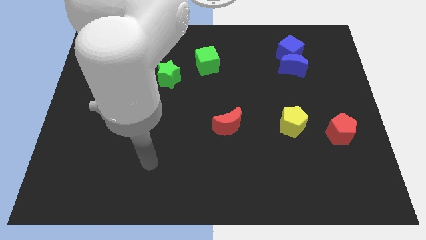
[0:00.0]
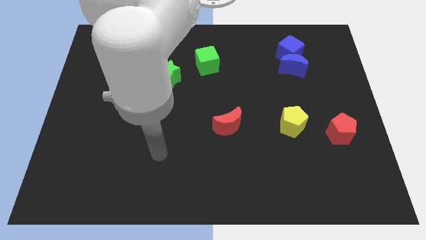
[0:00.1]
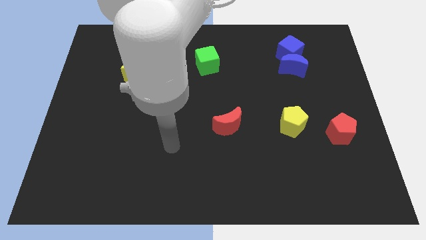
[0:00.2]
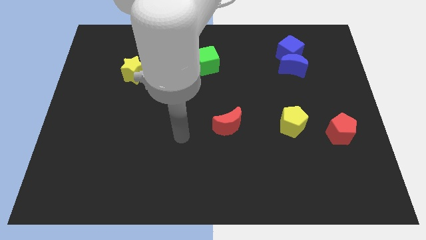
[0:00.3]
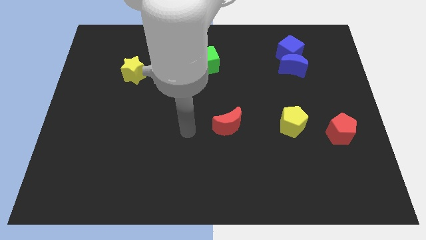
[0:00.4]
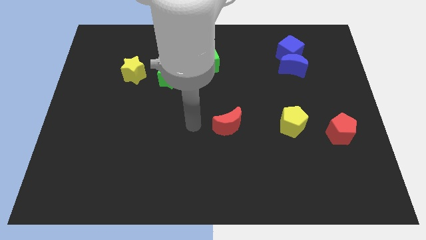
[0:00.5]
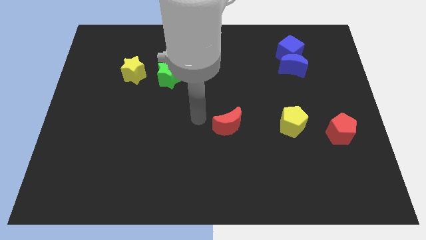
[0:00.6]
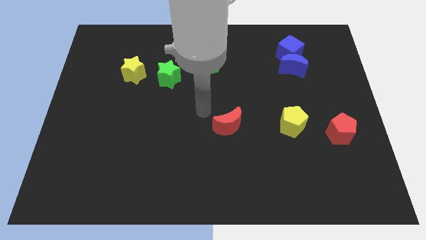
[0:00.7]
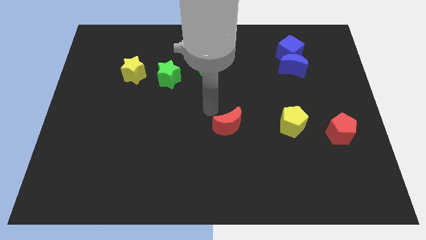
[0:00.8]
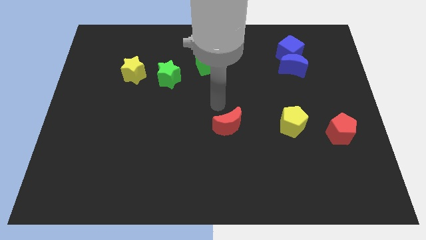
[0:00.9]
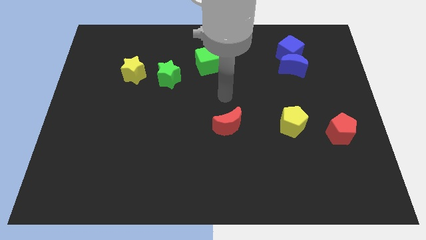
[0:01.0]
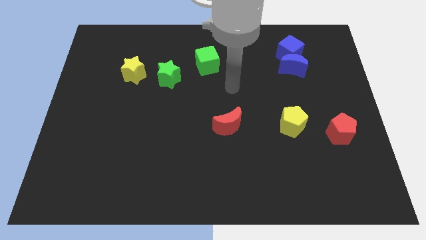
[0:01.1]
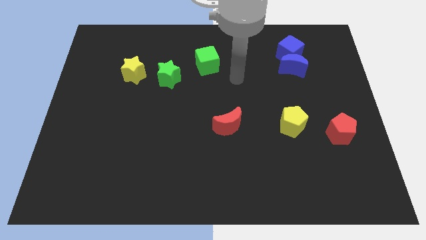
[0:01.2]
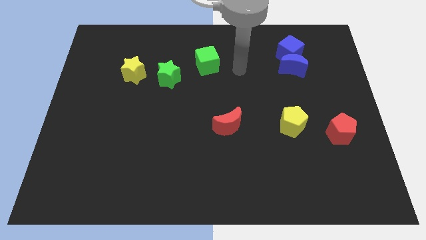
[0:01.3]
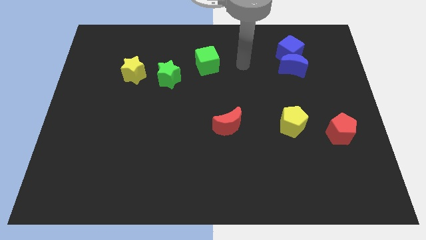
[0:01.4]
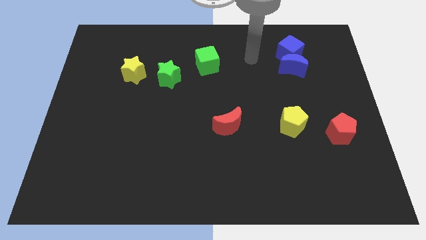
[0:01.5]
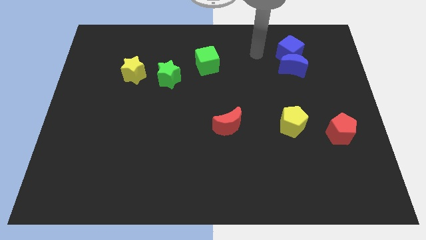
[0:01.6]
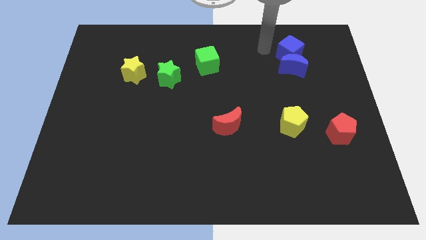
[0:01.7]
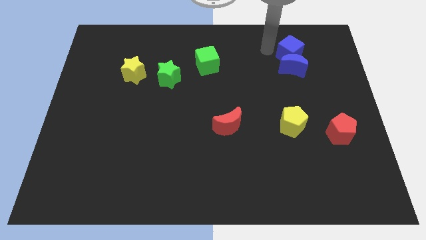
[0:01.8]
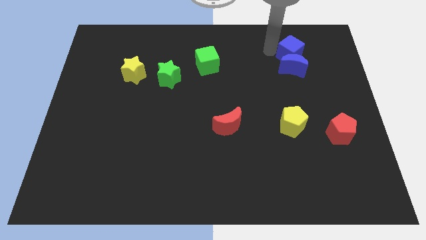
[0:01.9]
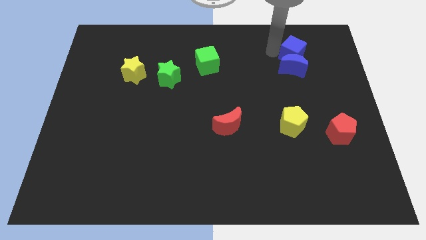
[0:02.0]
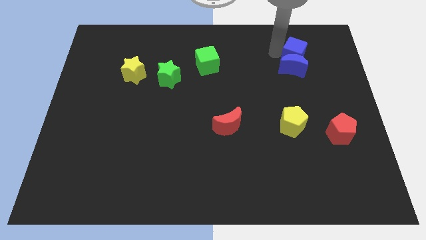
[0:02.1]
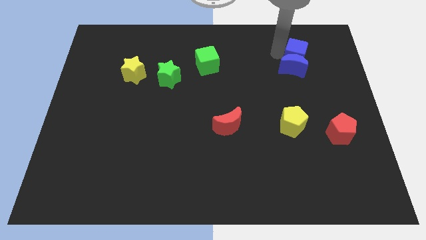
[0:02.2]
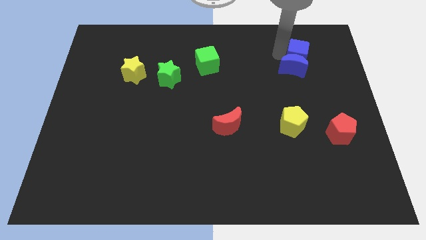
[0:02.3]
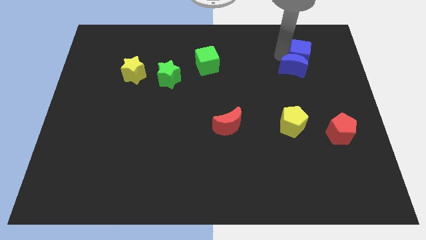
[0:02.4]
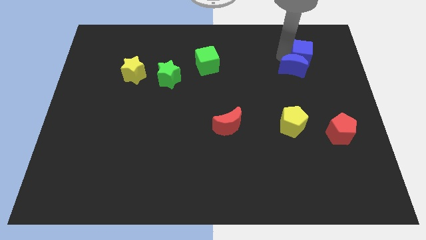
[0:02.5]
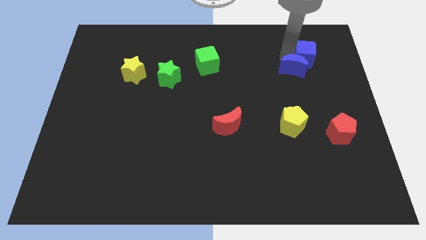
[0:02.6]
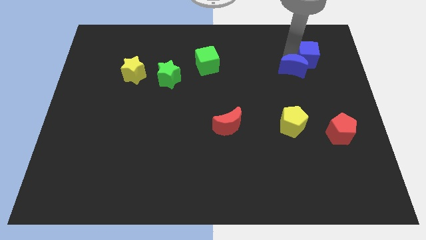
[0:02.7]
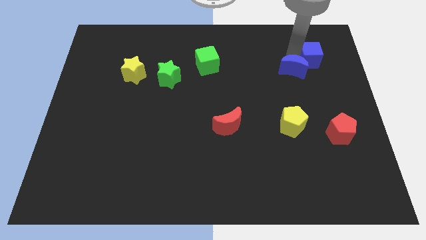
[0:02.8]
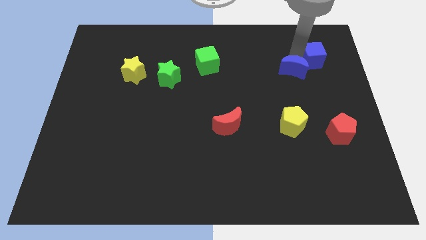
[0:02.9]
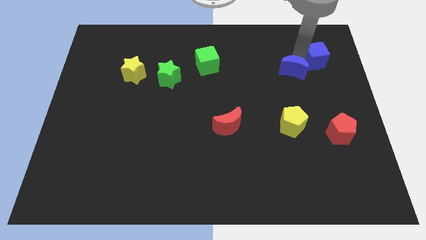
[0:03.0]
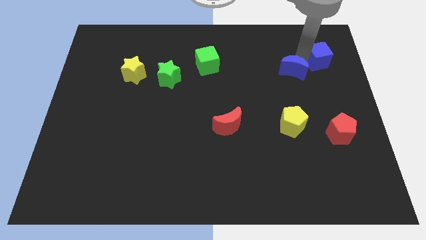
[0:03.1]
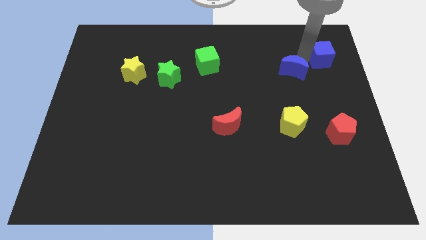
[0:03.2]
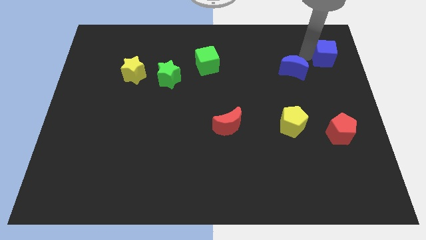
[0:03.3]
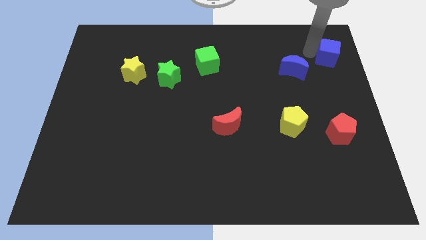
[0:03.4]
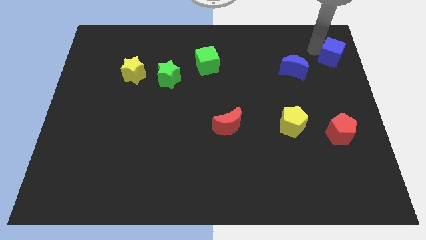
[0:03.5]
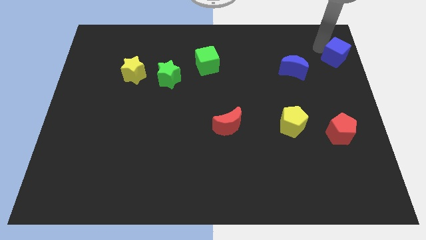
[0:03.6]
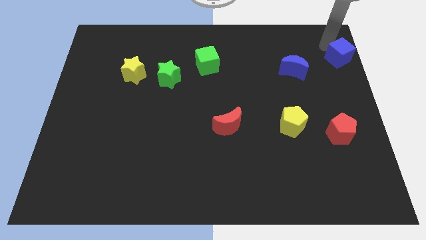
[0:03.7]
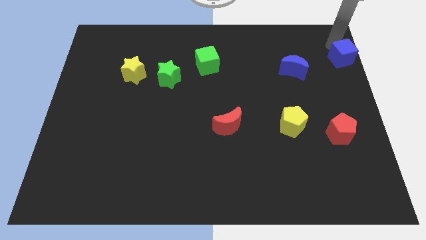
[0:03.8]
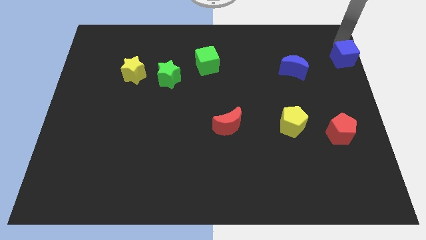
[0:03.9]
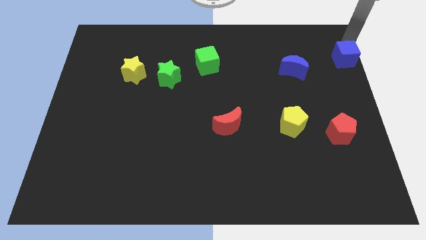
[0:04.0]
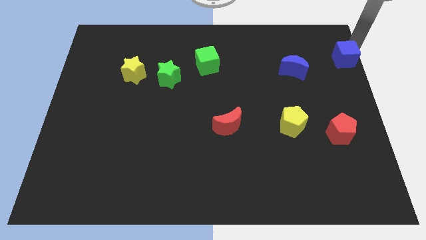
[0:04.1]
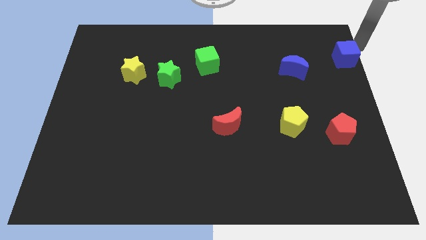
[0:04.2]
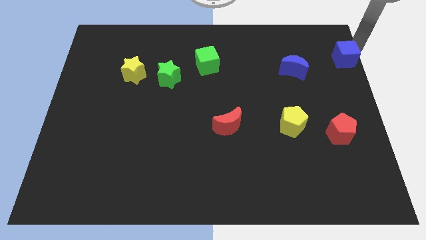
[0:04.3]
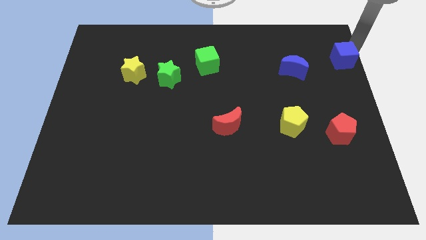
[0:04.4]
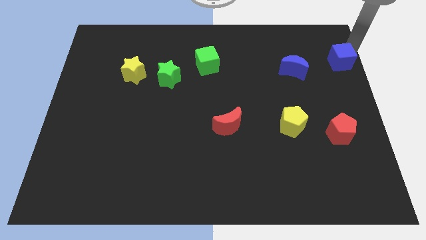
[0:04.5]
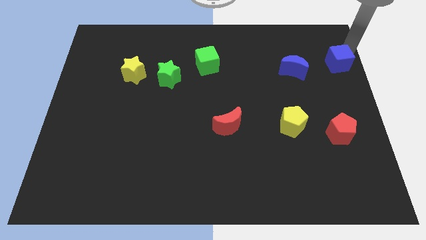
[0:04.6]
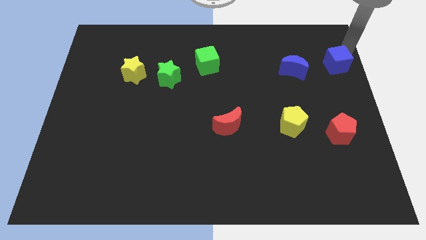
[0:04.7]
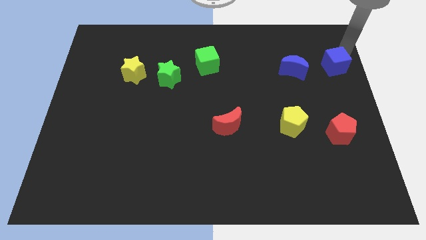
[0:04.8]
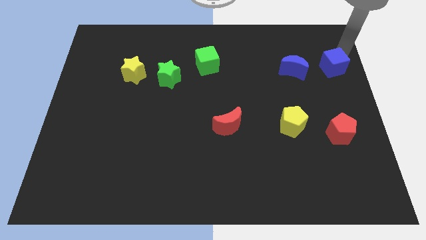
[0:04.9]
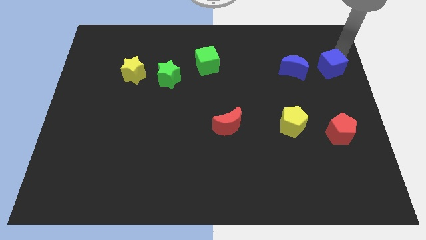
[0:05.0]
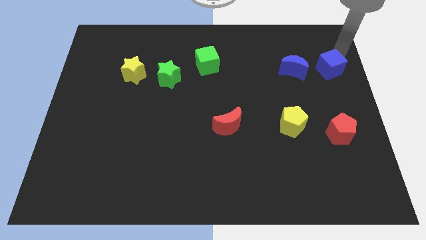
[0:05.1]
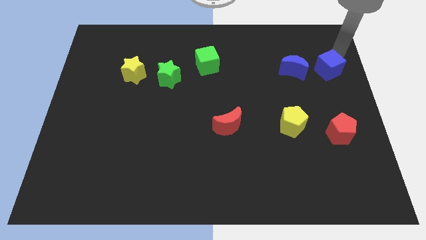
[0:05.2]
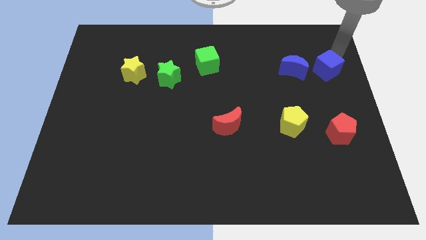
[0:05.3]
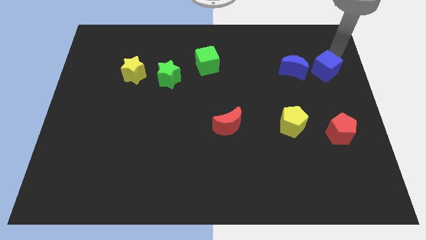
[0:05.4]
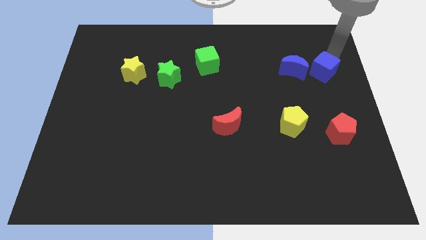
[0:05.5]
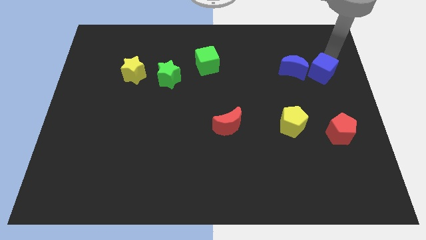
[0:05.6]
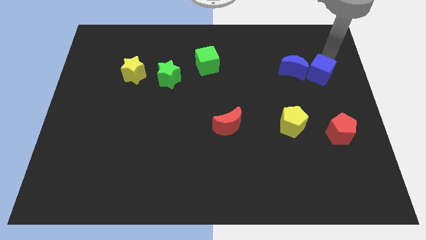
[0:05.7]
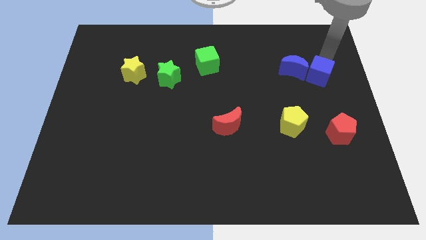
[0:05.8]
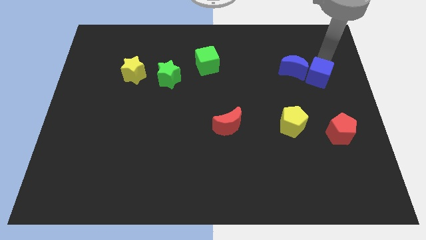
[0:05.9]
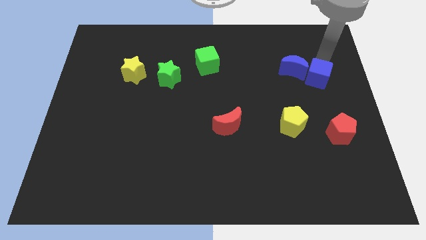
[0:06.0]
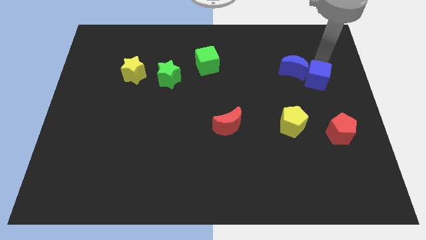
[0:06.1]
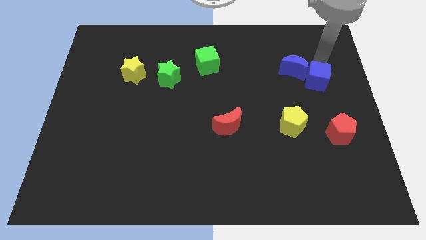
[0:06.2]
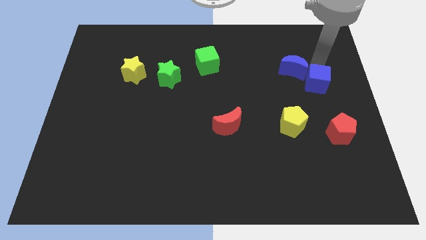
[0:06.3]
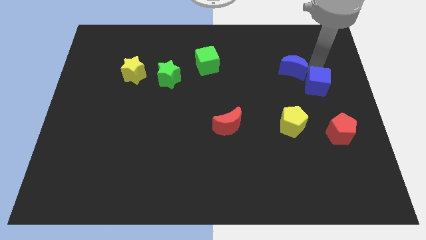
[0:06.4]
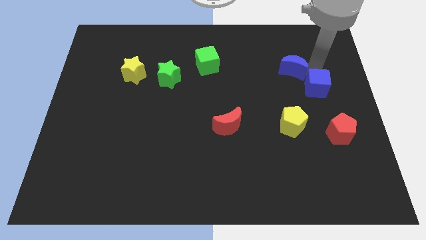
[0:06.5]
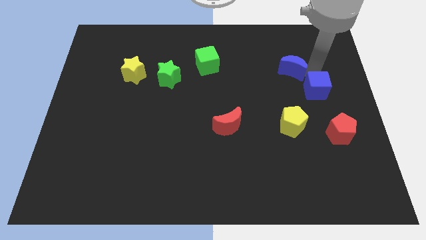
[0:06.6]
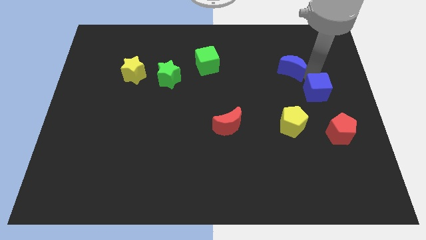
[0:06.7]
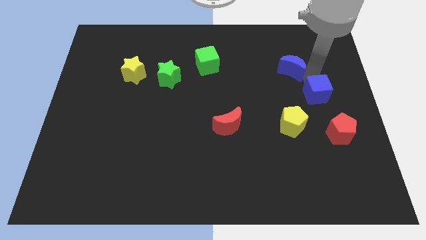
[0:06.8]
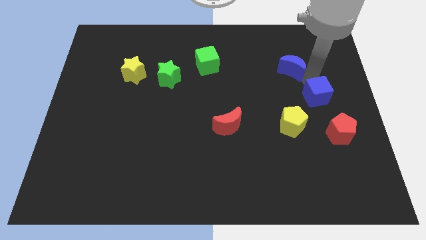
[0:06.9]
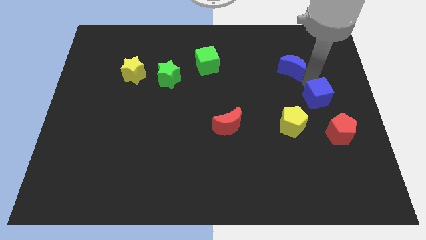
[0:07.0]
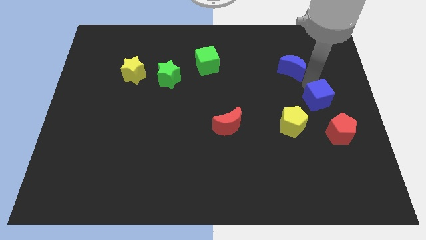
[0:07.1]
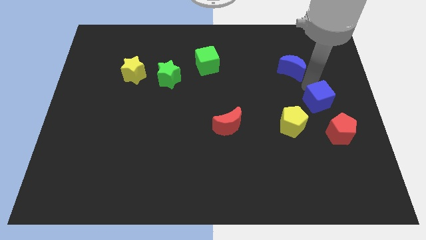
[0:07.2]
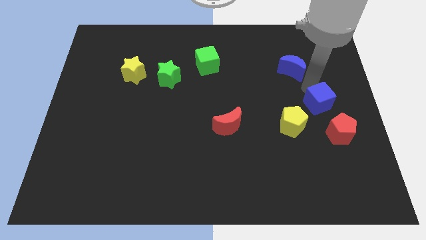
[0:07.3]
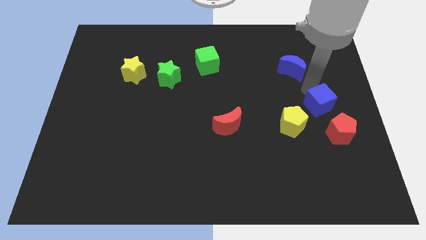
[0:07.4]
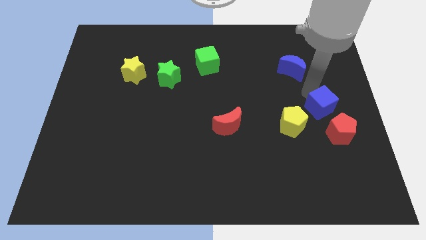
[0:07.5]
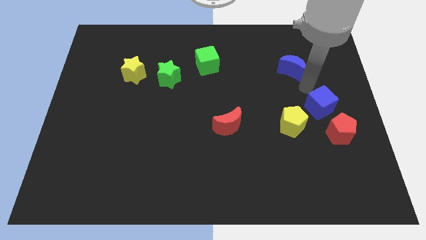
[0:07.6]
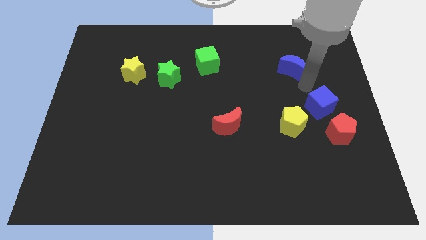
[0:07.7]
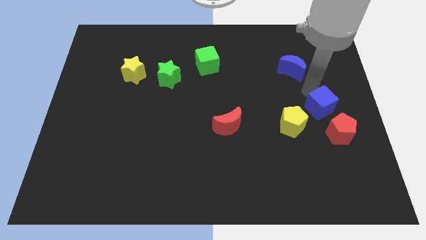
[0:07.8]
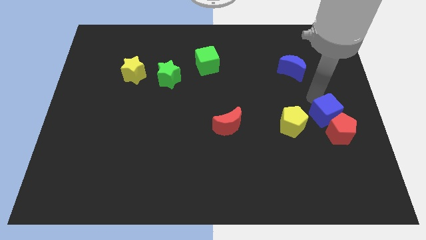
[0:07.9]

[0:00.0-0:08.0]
push the blue cube close to the red pentagon
